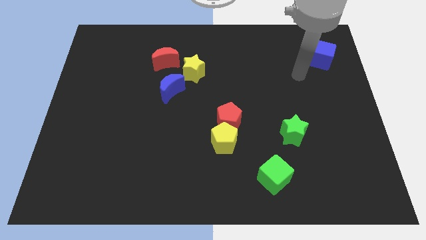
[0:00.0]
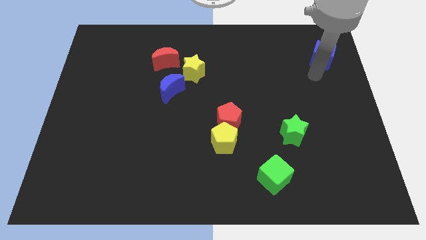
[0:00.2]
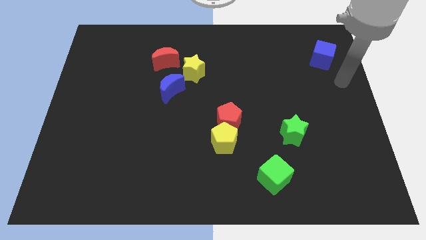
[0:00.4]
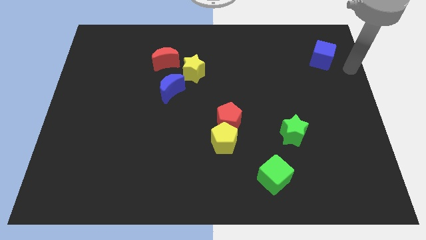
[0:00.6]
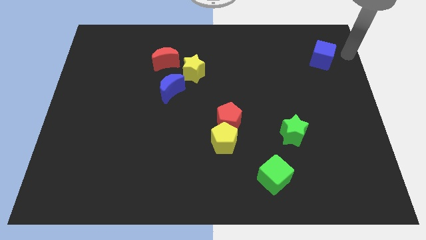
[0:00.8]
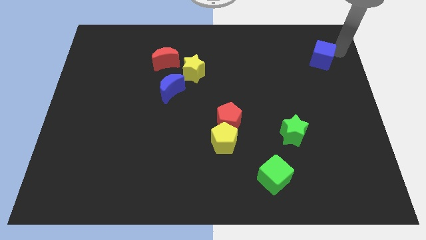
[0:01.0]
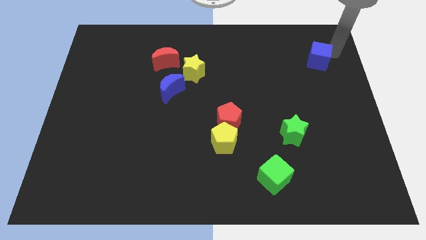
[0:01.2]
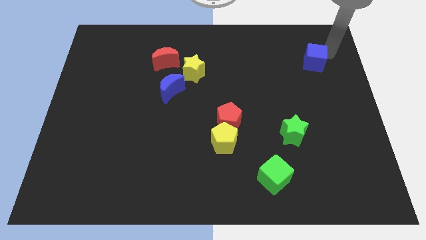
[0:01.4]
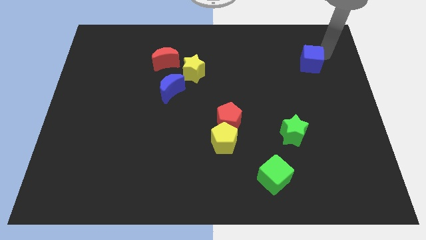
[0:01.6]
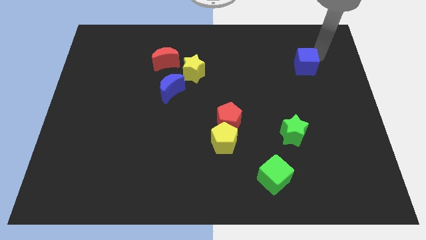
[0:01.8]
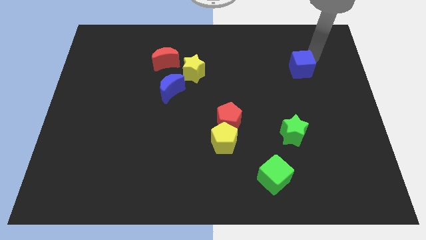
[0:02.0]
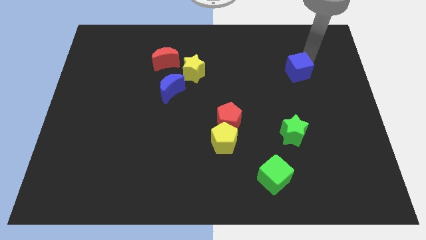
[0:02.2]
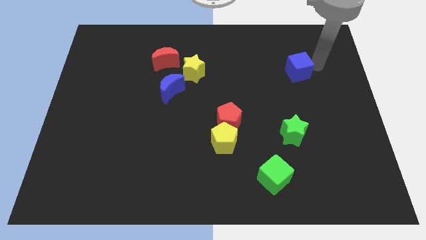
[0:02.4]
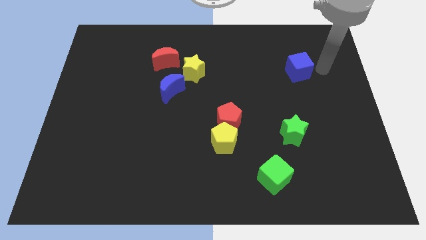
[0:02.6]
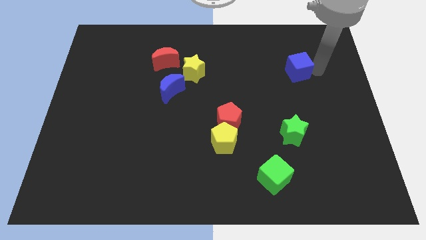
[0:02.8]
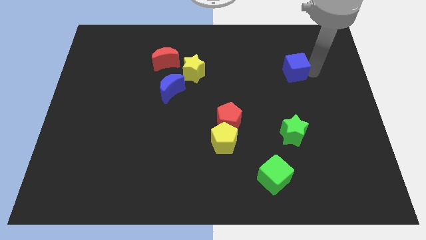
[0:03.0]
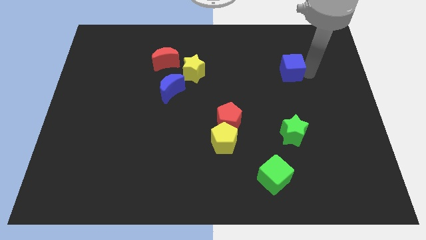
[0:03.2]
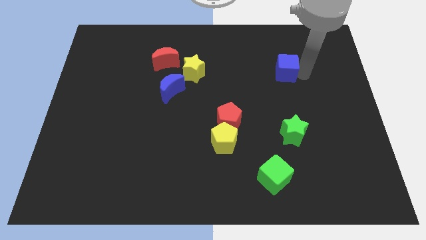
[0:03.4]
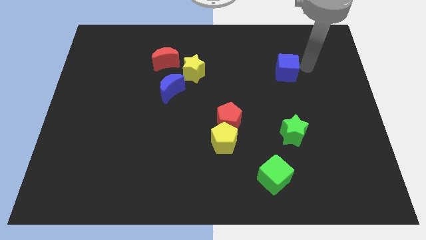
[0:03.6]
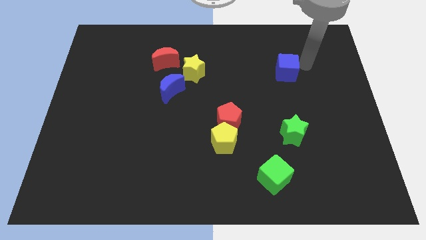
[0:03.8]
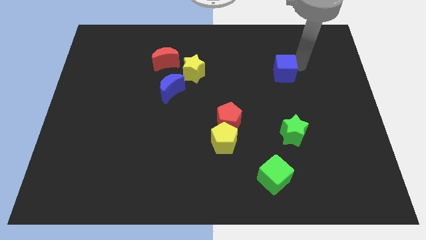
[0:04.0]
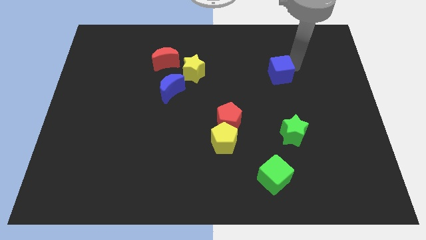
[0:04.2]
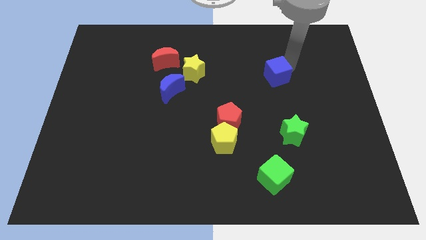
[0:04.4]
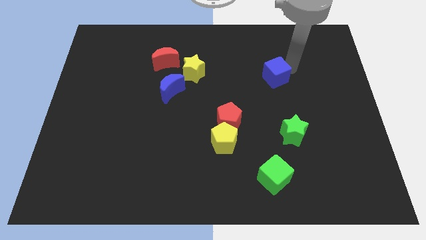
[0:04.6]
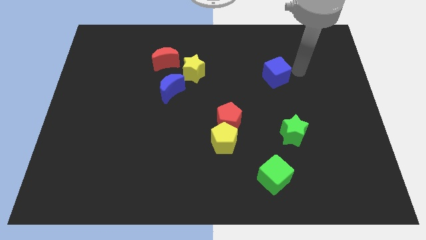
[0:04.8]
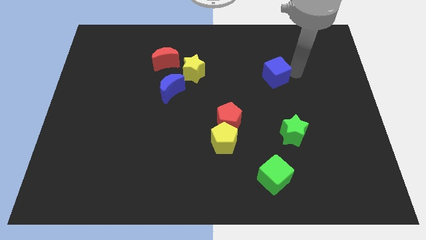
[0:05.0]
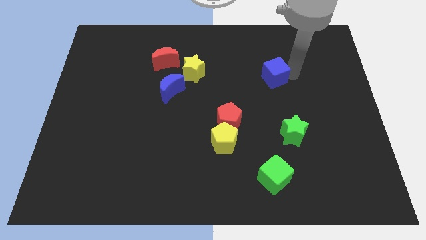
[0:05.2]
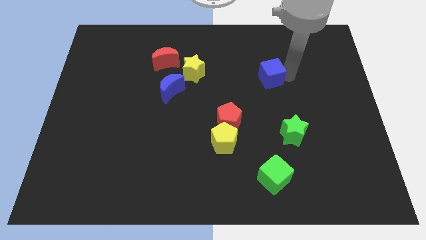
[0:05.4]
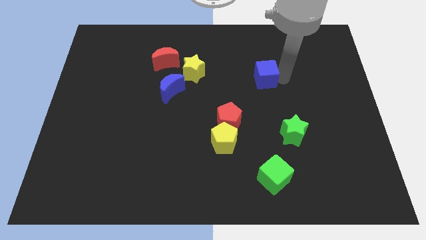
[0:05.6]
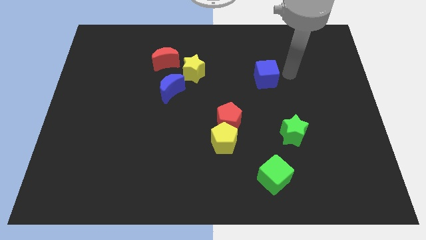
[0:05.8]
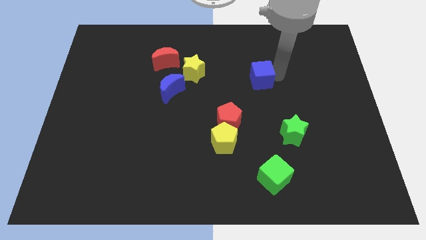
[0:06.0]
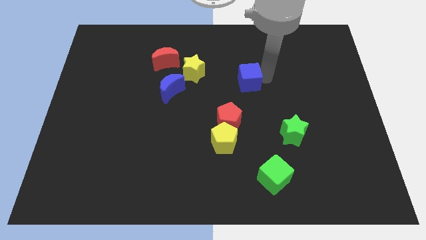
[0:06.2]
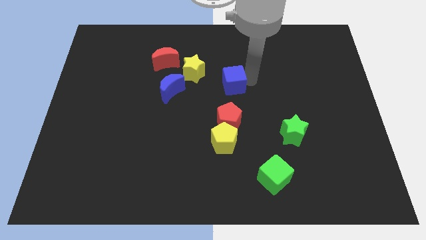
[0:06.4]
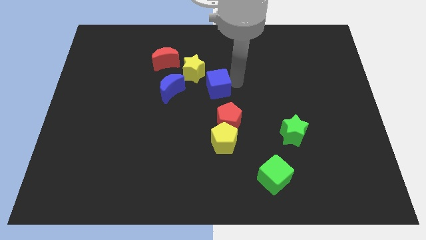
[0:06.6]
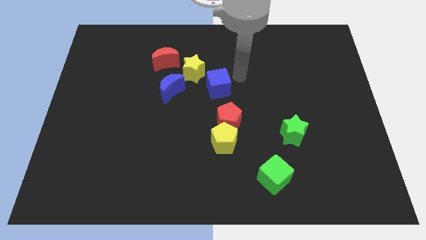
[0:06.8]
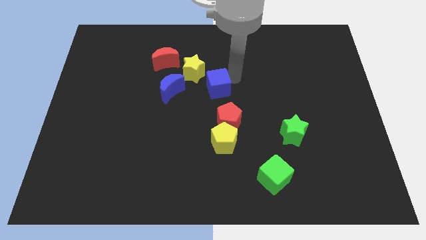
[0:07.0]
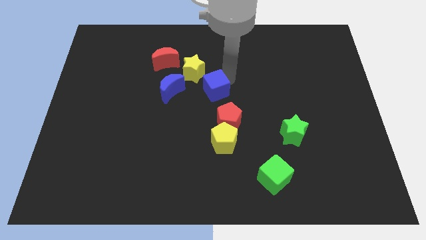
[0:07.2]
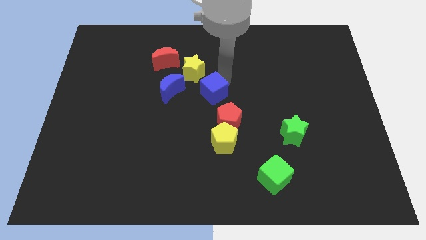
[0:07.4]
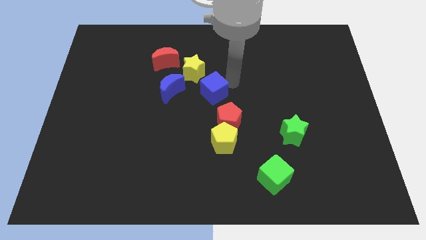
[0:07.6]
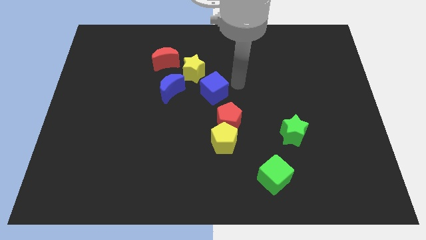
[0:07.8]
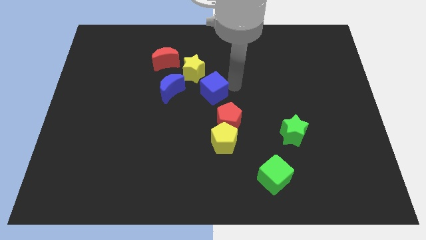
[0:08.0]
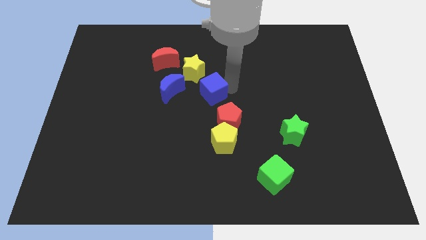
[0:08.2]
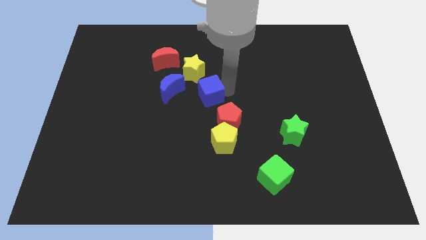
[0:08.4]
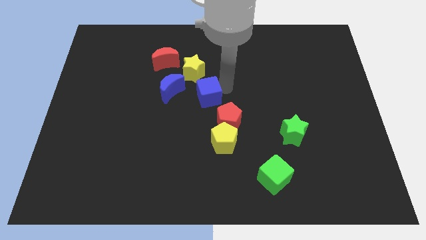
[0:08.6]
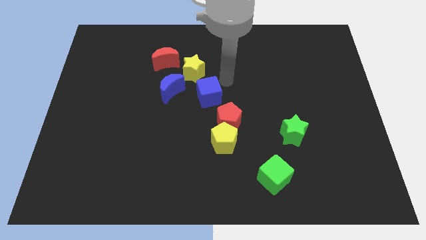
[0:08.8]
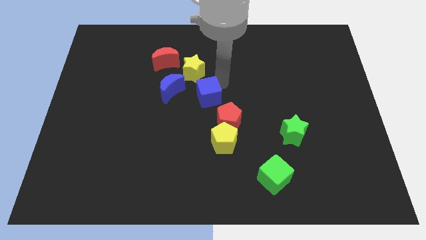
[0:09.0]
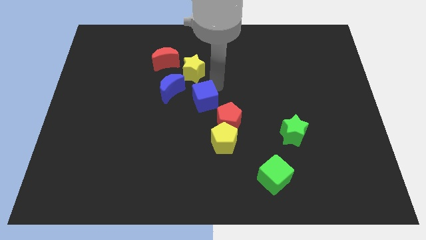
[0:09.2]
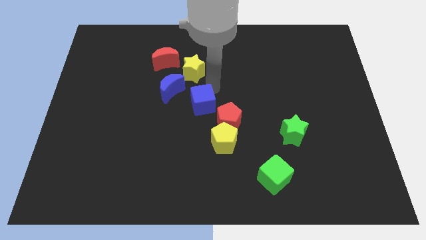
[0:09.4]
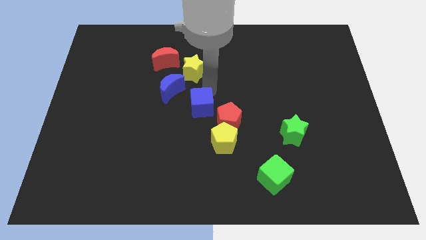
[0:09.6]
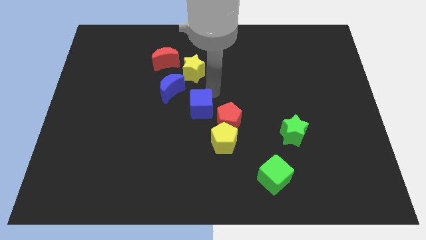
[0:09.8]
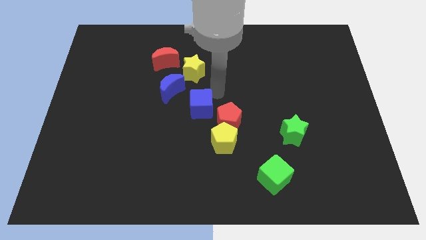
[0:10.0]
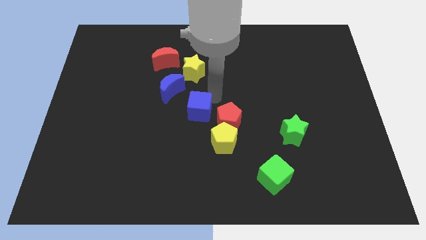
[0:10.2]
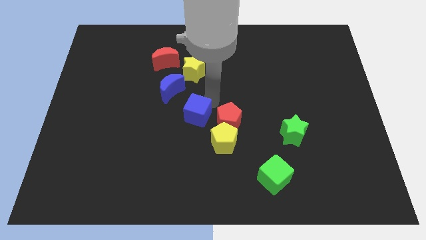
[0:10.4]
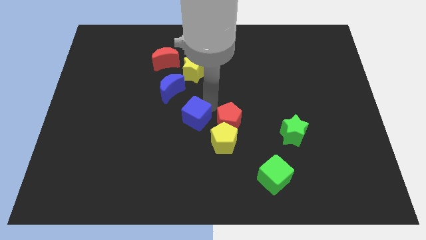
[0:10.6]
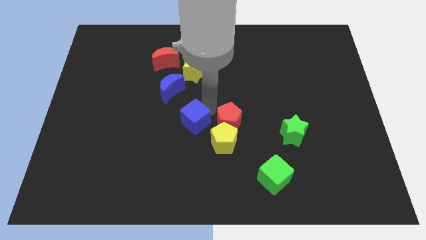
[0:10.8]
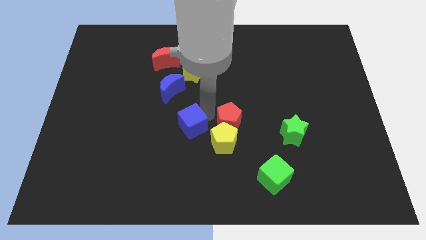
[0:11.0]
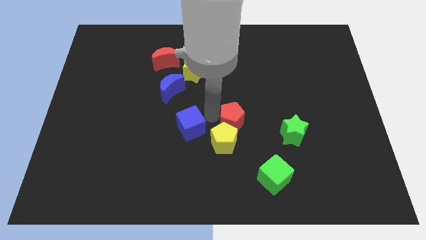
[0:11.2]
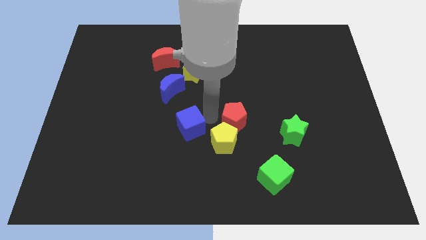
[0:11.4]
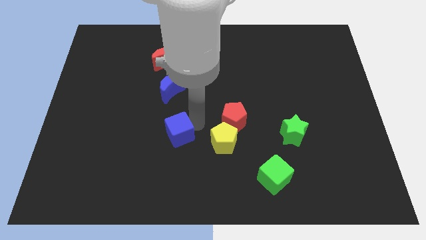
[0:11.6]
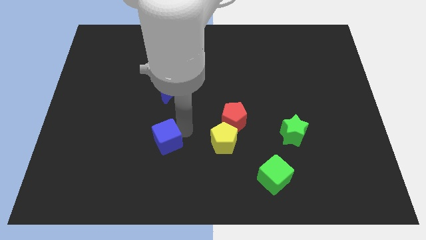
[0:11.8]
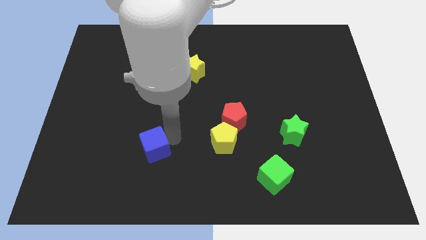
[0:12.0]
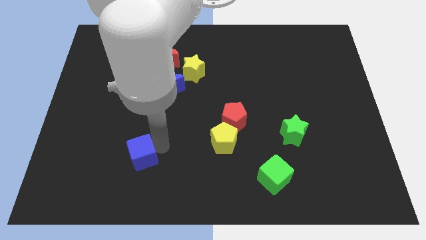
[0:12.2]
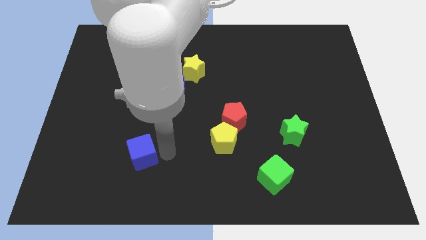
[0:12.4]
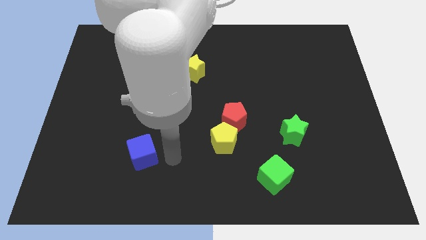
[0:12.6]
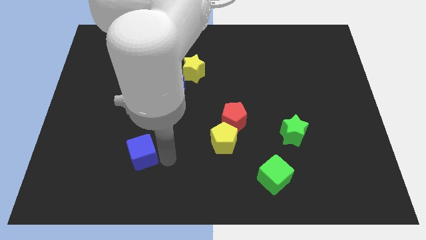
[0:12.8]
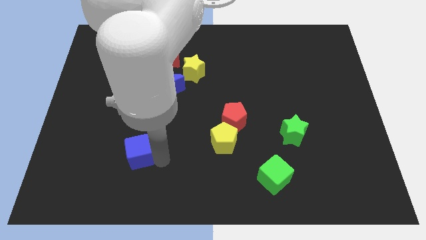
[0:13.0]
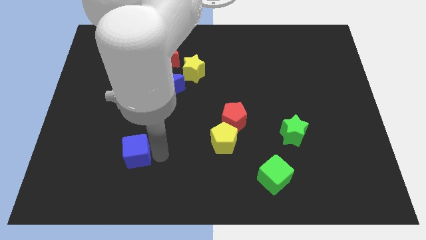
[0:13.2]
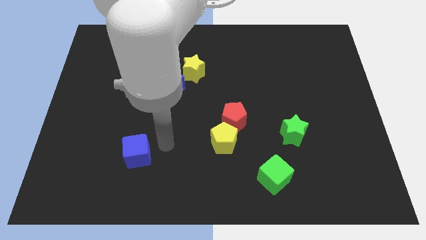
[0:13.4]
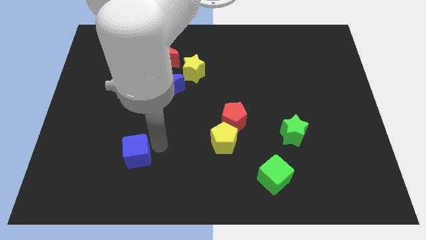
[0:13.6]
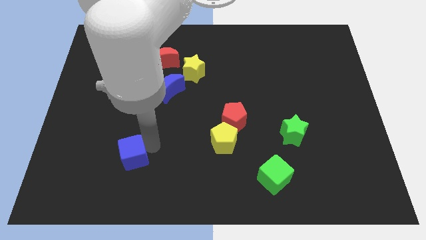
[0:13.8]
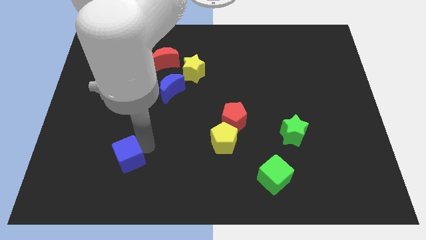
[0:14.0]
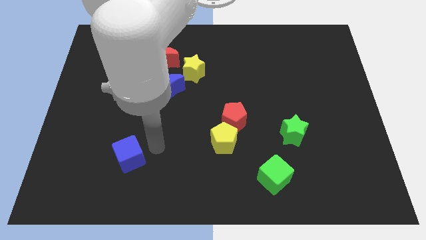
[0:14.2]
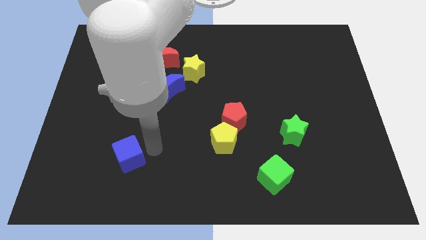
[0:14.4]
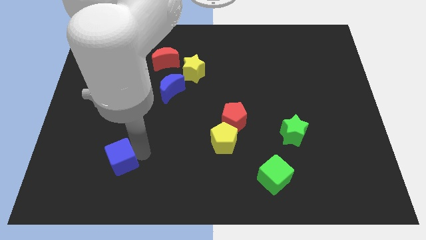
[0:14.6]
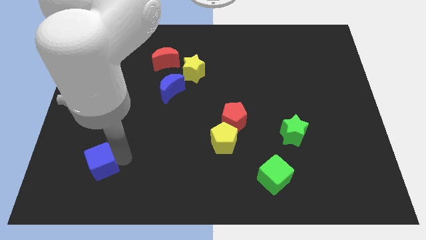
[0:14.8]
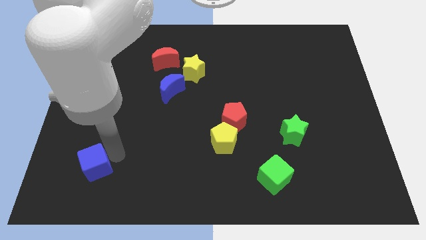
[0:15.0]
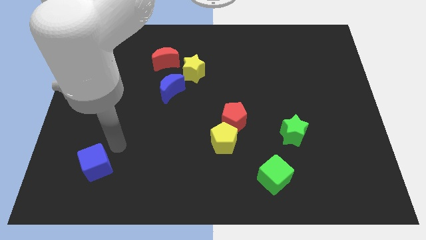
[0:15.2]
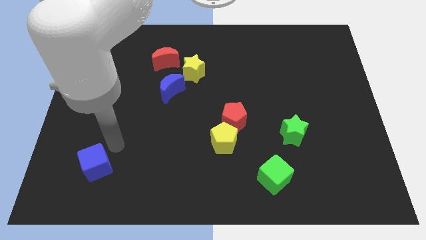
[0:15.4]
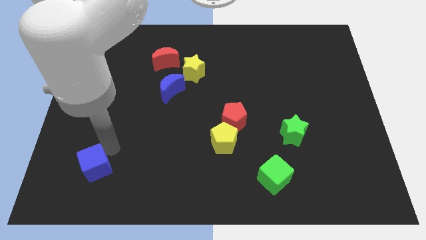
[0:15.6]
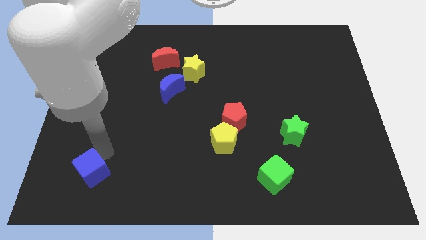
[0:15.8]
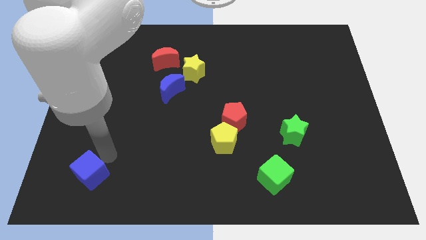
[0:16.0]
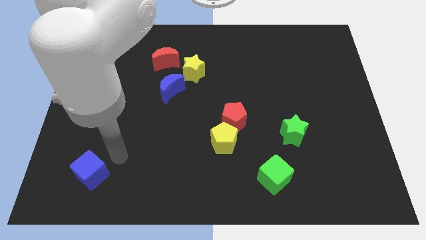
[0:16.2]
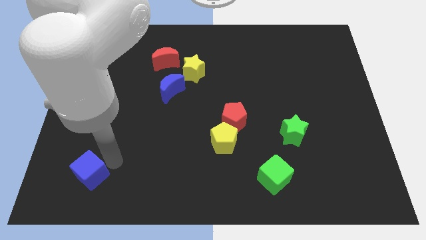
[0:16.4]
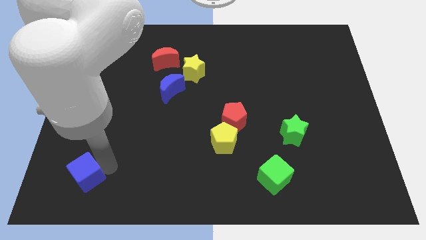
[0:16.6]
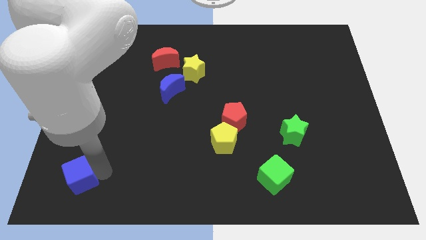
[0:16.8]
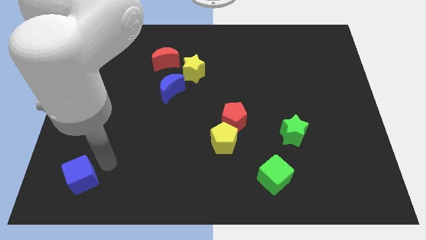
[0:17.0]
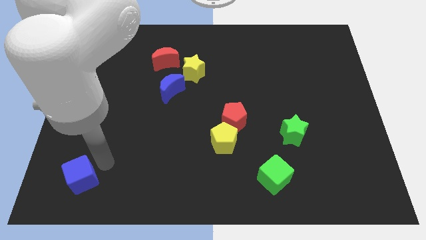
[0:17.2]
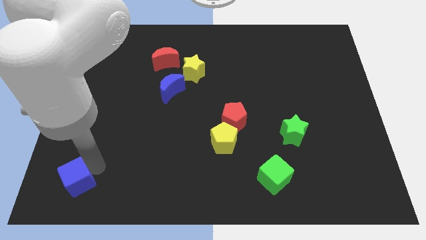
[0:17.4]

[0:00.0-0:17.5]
put the blue cube to the bottom left
